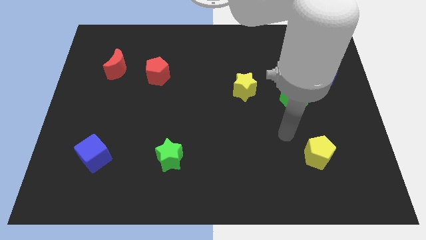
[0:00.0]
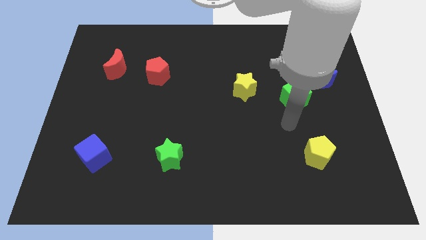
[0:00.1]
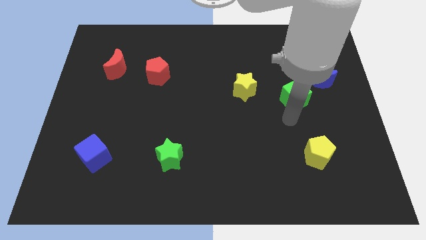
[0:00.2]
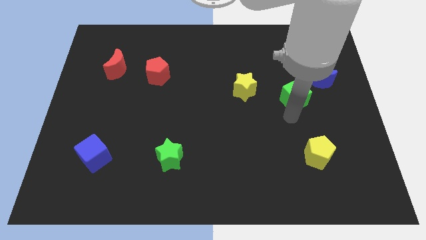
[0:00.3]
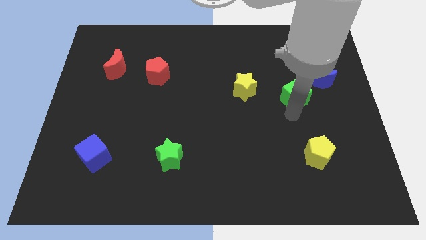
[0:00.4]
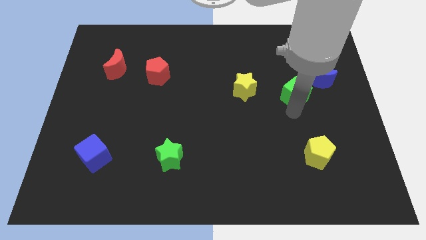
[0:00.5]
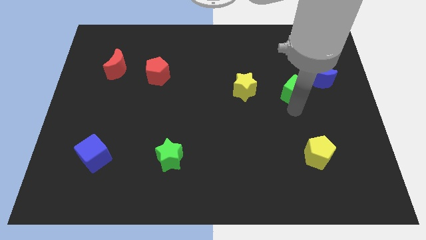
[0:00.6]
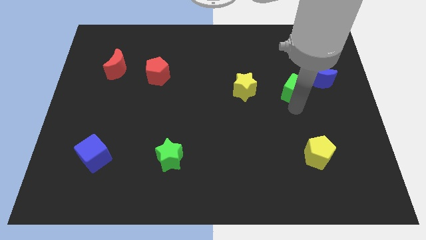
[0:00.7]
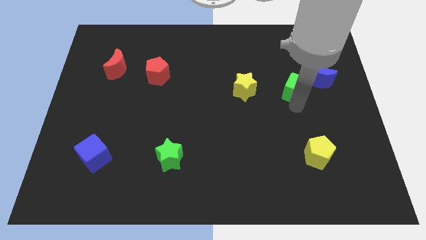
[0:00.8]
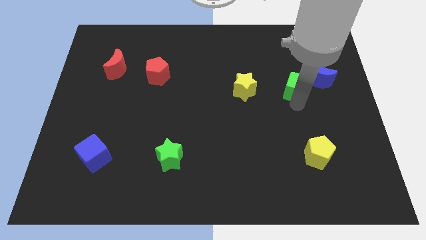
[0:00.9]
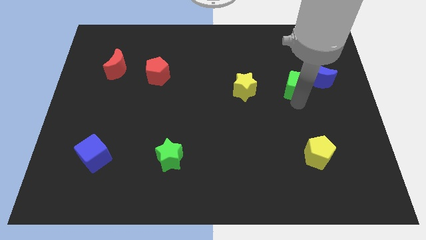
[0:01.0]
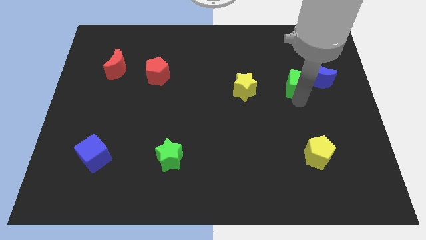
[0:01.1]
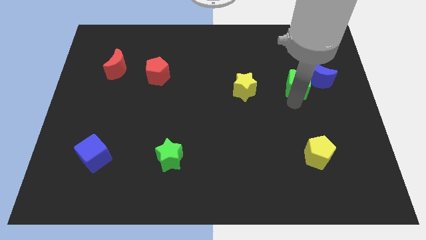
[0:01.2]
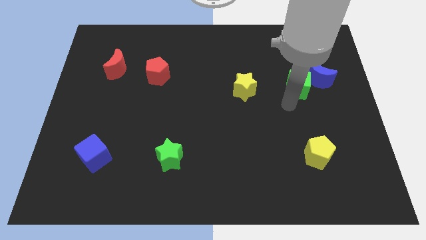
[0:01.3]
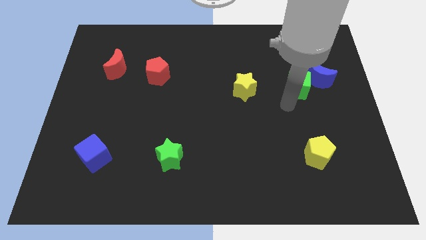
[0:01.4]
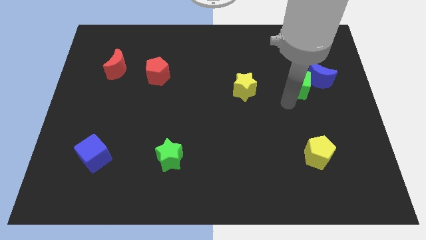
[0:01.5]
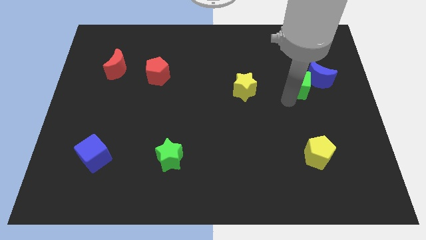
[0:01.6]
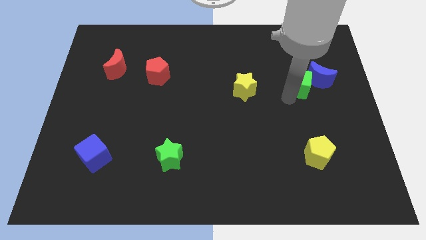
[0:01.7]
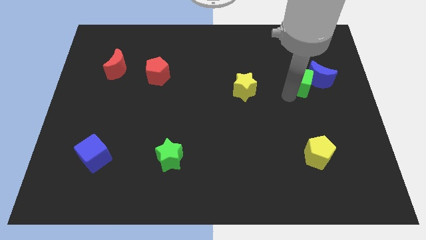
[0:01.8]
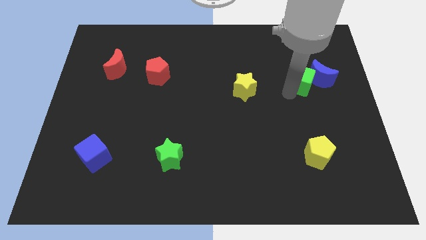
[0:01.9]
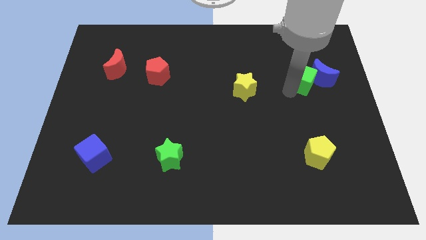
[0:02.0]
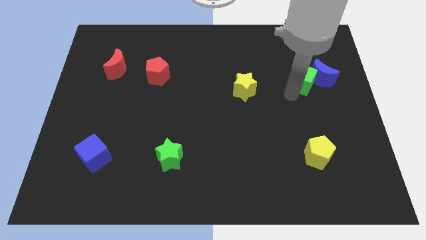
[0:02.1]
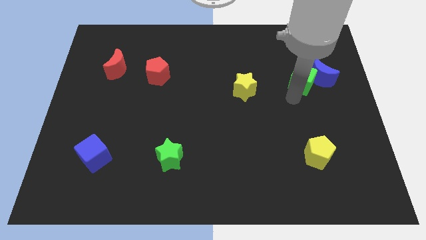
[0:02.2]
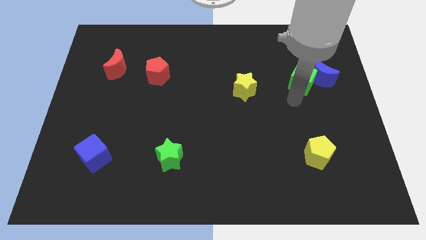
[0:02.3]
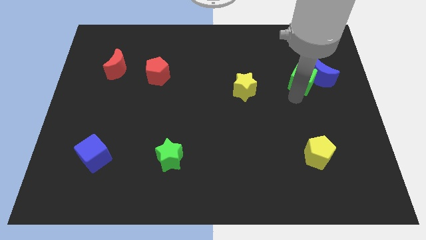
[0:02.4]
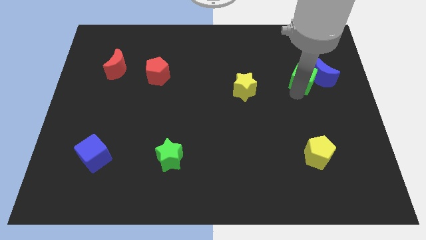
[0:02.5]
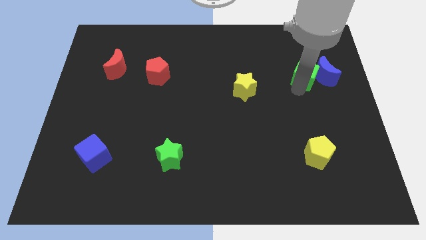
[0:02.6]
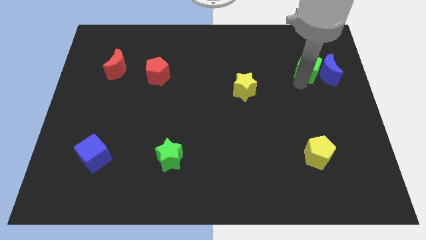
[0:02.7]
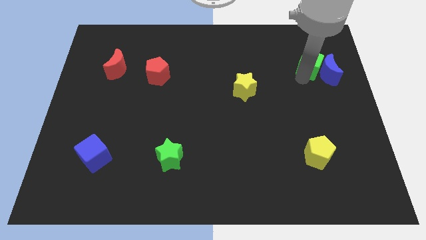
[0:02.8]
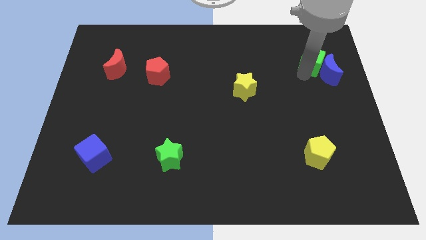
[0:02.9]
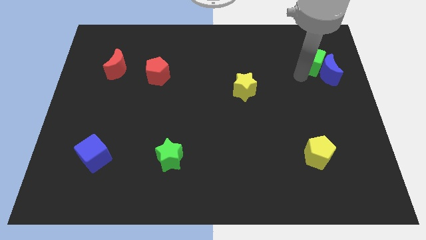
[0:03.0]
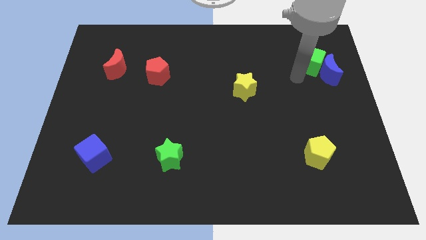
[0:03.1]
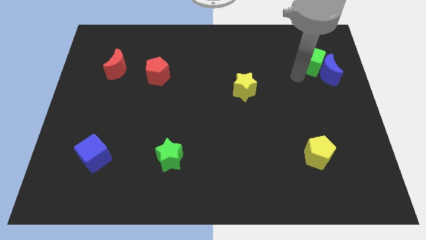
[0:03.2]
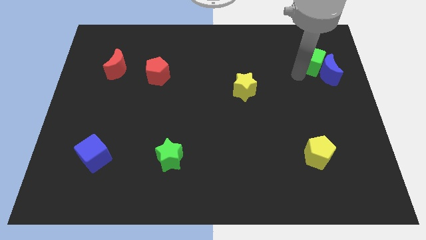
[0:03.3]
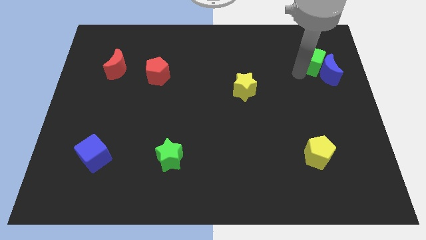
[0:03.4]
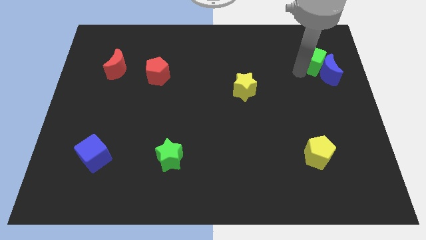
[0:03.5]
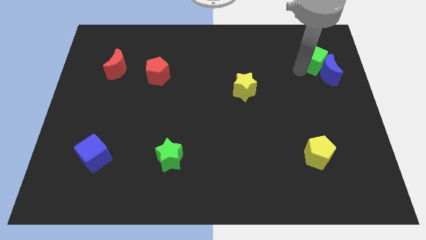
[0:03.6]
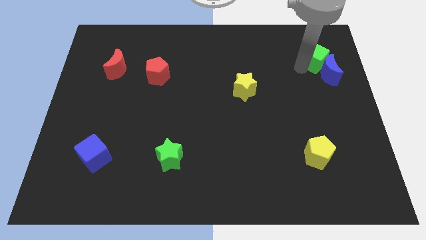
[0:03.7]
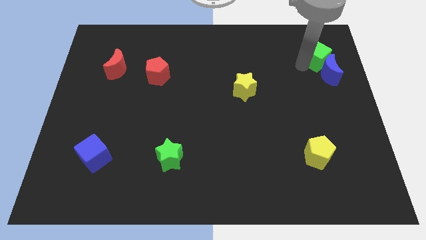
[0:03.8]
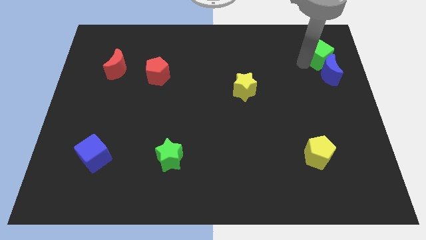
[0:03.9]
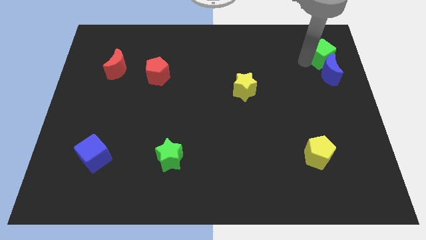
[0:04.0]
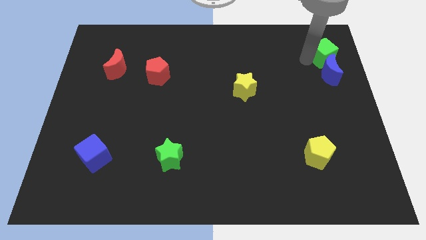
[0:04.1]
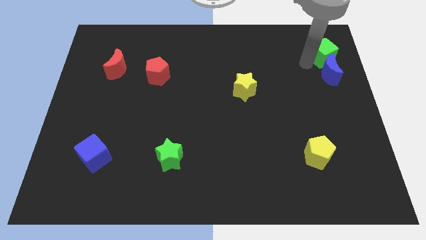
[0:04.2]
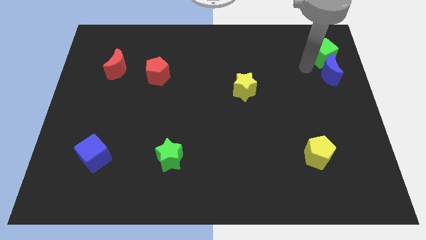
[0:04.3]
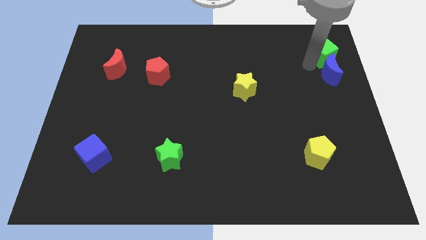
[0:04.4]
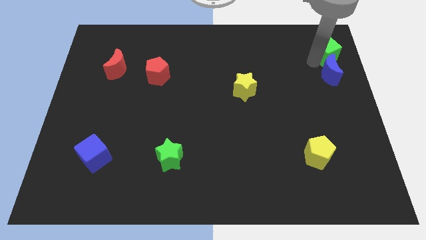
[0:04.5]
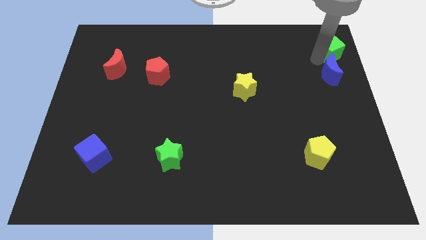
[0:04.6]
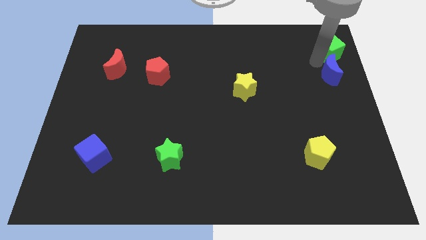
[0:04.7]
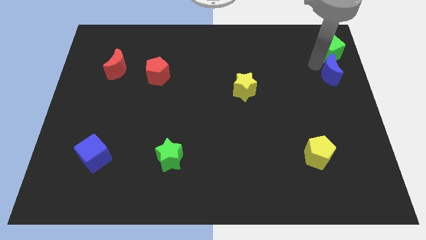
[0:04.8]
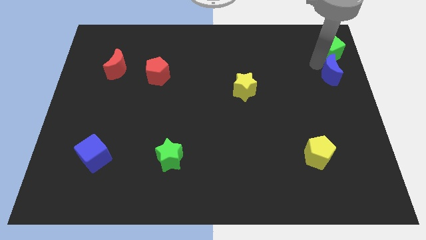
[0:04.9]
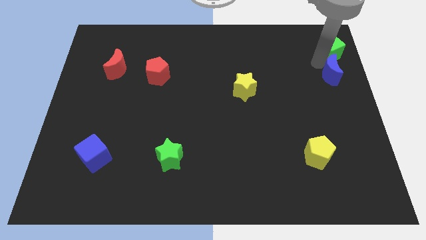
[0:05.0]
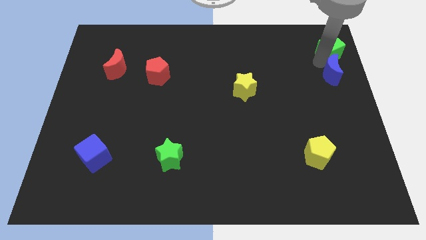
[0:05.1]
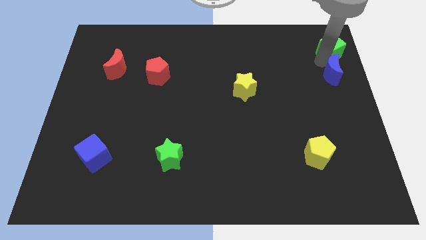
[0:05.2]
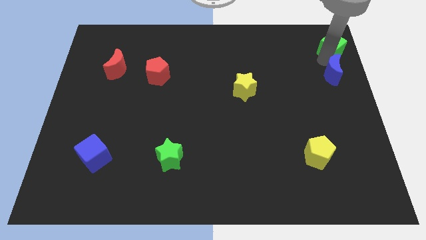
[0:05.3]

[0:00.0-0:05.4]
put the green cube to the top right corner

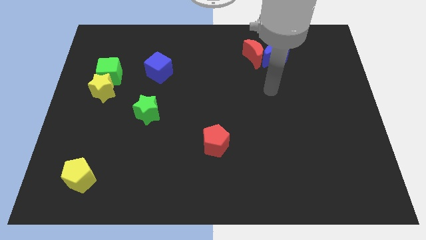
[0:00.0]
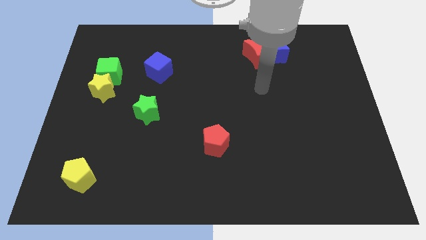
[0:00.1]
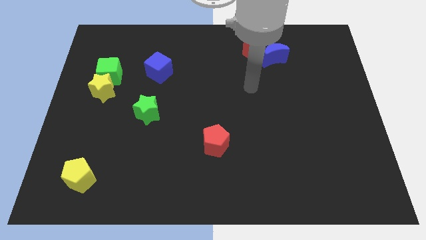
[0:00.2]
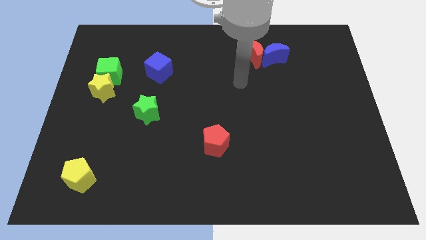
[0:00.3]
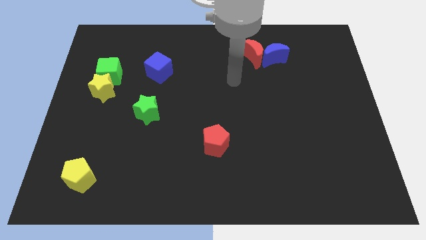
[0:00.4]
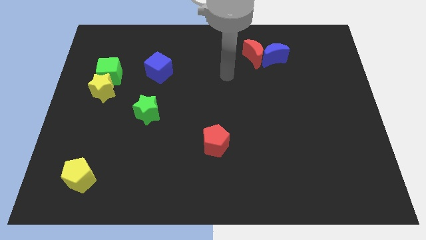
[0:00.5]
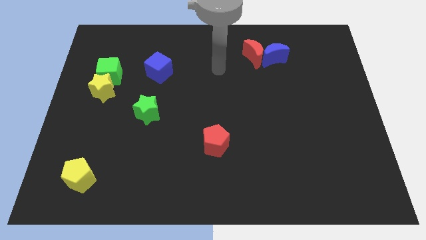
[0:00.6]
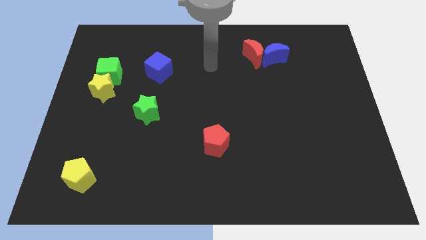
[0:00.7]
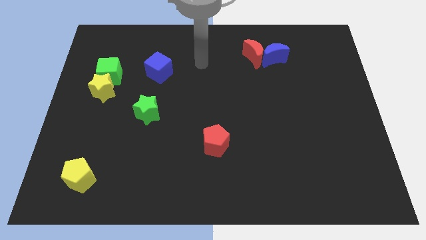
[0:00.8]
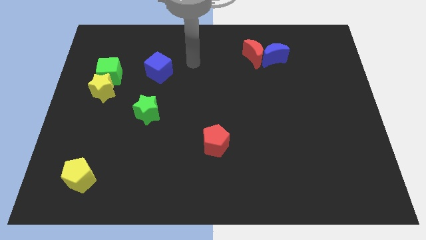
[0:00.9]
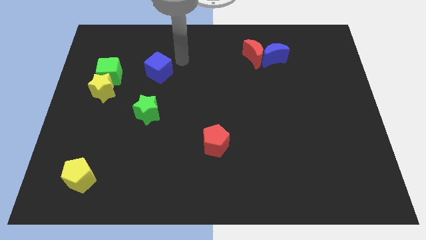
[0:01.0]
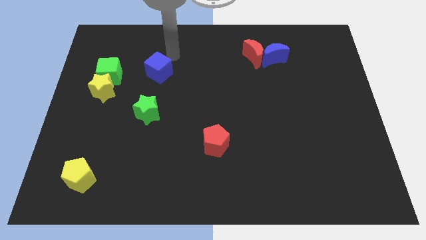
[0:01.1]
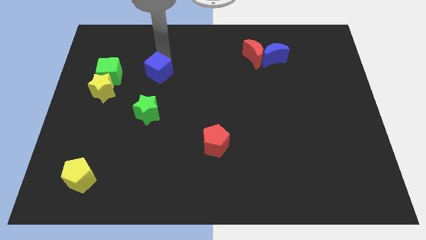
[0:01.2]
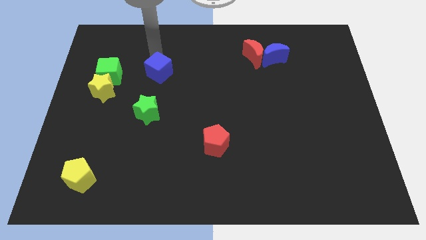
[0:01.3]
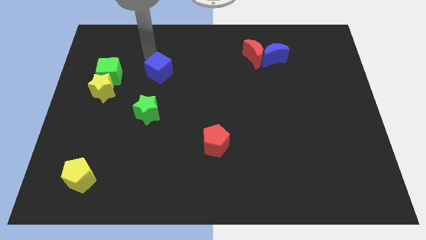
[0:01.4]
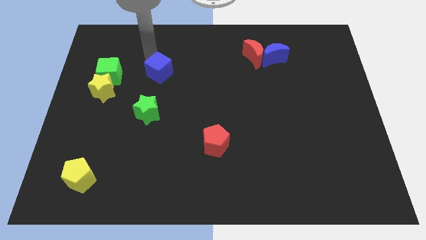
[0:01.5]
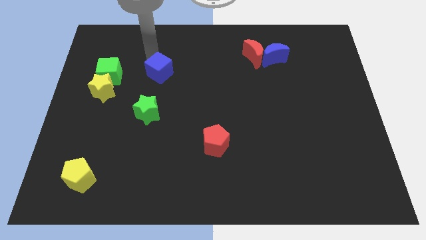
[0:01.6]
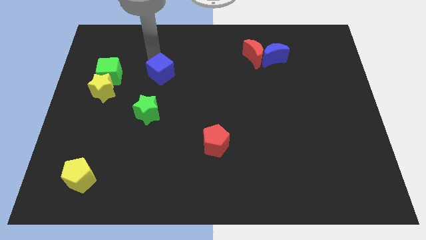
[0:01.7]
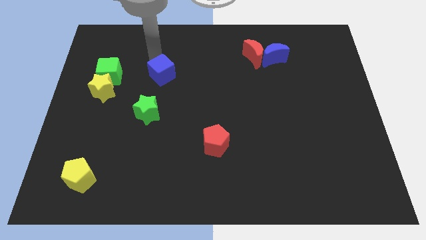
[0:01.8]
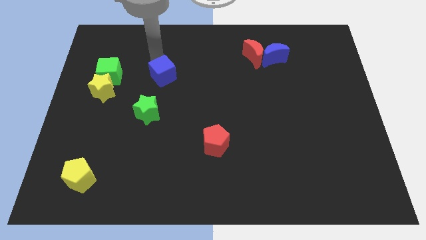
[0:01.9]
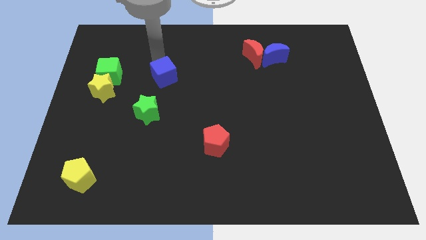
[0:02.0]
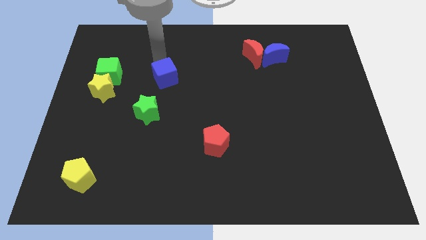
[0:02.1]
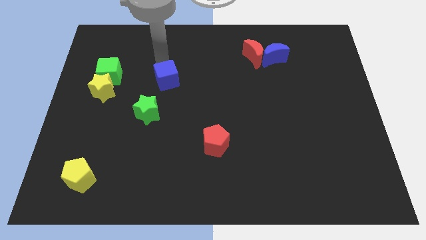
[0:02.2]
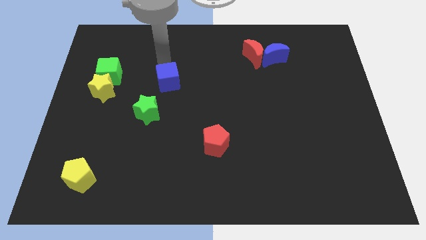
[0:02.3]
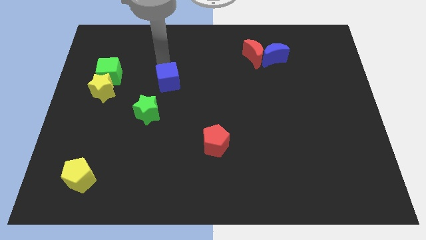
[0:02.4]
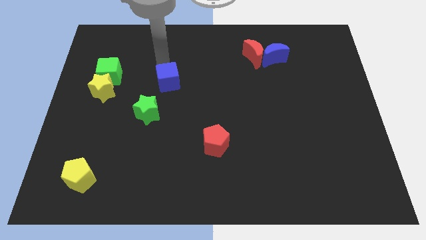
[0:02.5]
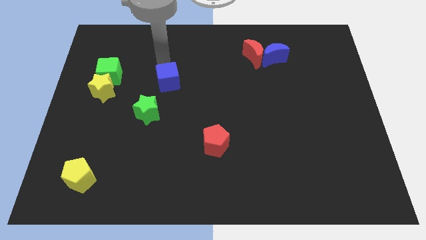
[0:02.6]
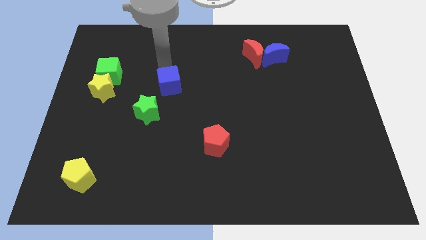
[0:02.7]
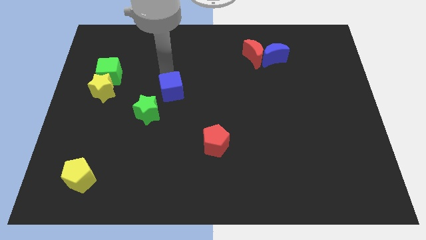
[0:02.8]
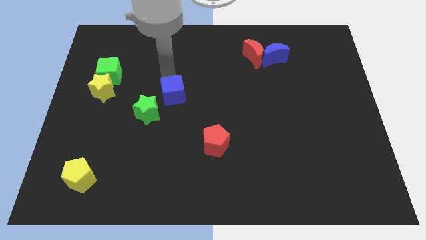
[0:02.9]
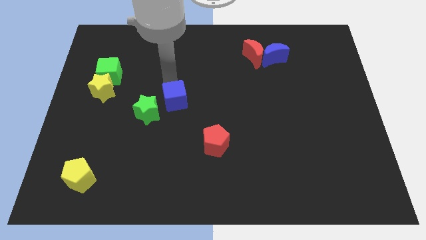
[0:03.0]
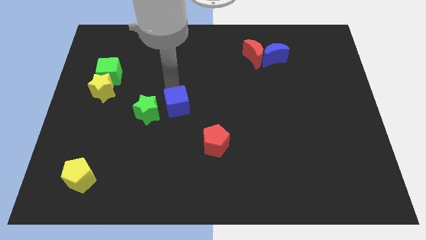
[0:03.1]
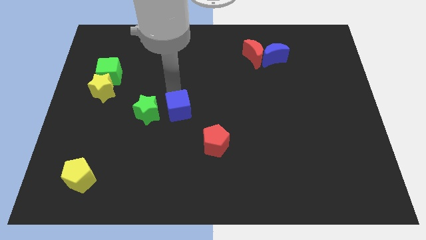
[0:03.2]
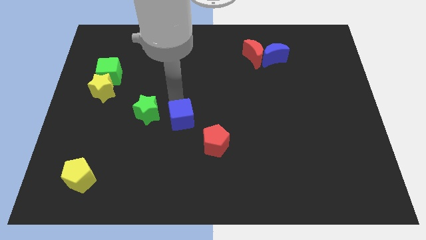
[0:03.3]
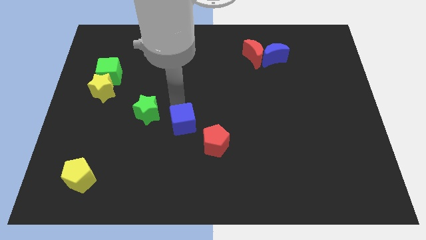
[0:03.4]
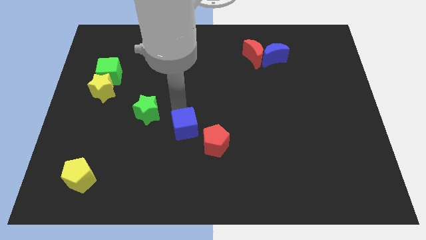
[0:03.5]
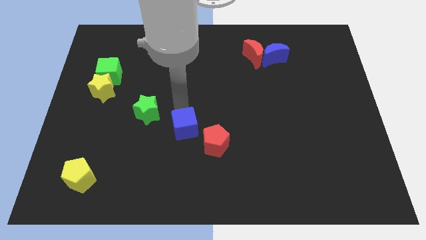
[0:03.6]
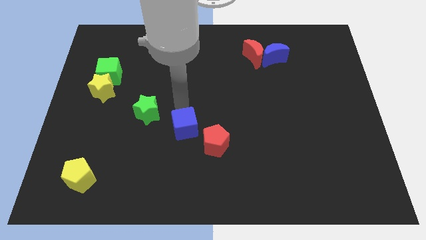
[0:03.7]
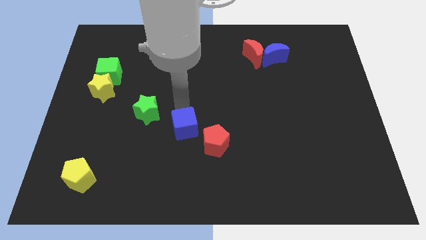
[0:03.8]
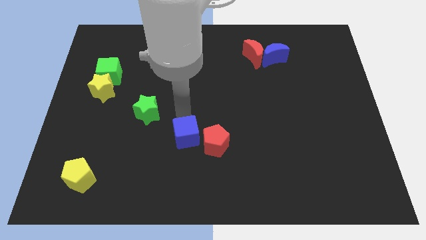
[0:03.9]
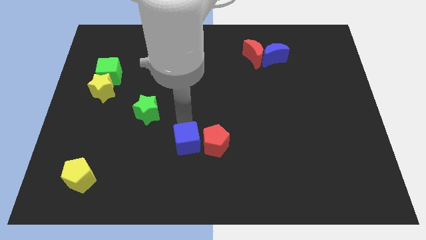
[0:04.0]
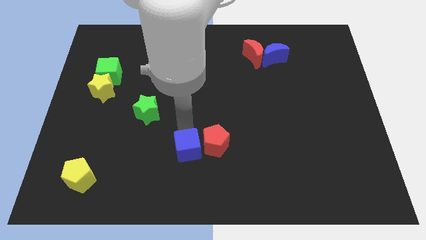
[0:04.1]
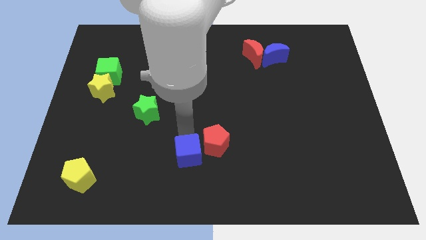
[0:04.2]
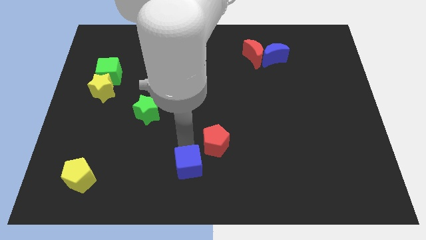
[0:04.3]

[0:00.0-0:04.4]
put the blue cube to the bottom
